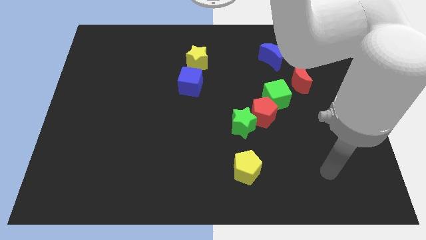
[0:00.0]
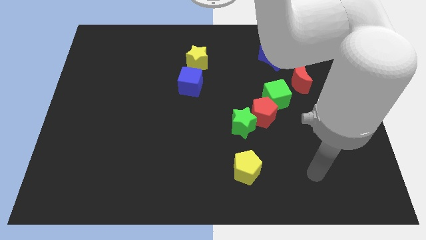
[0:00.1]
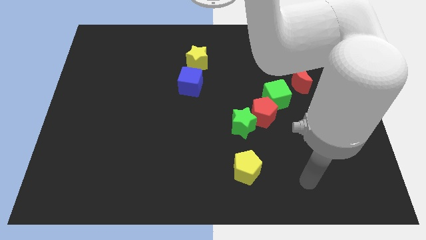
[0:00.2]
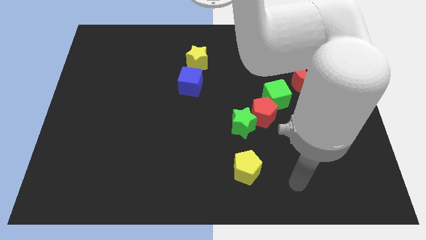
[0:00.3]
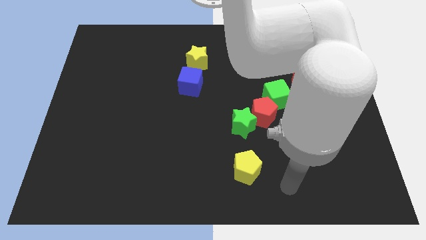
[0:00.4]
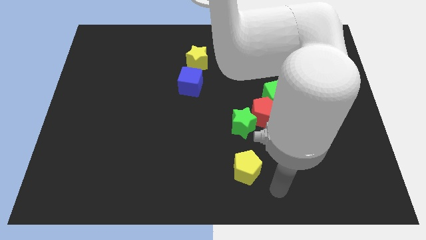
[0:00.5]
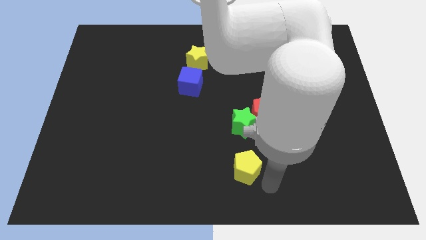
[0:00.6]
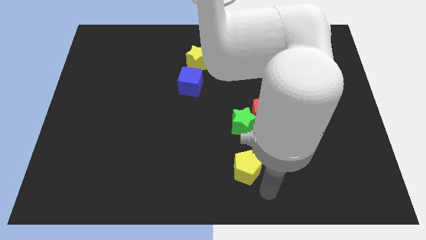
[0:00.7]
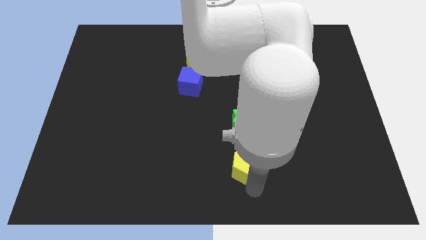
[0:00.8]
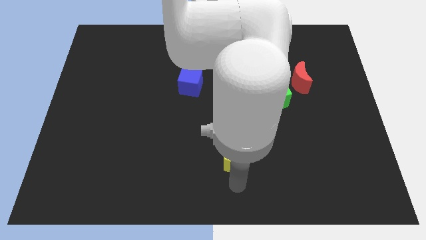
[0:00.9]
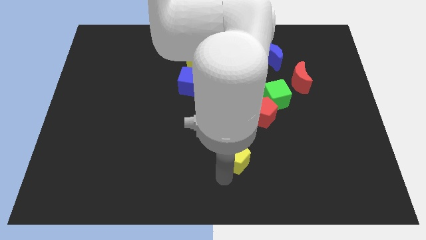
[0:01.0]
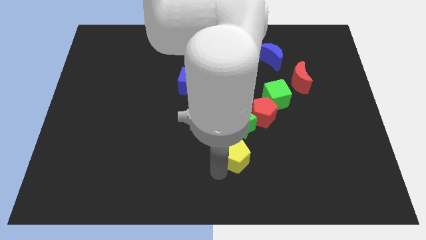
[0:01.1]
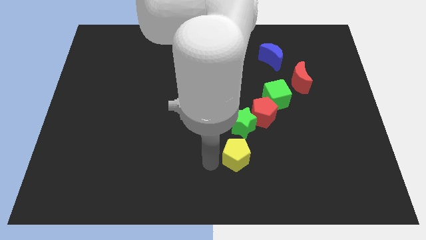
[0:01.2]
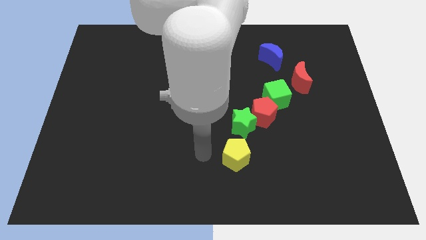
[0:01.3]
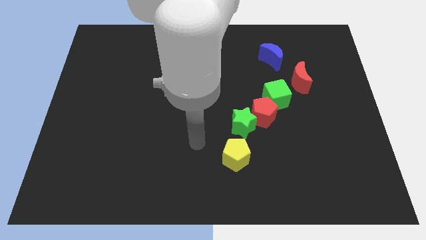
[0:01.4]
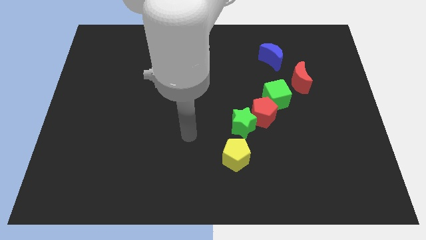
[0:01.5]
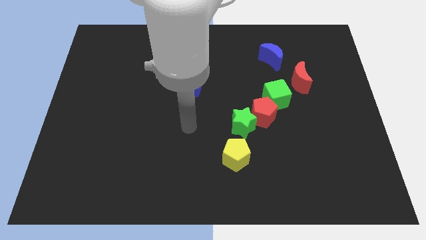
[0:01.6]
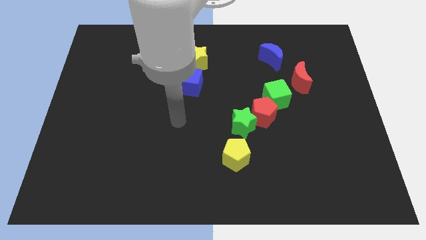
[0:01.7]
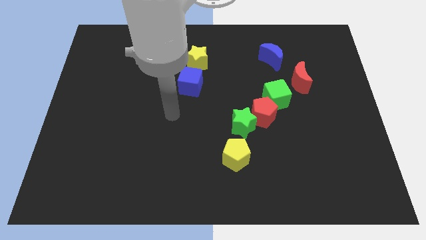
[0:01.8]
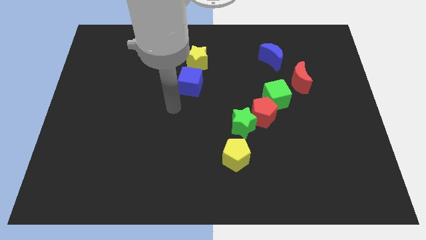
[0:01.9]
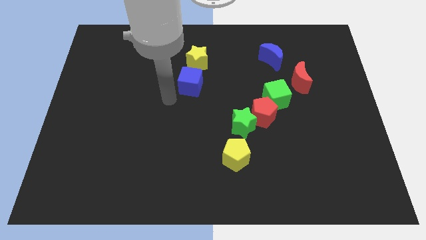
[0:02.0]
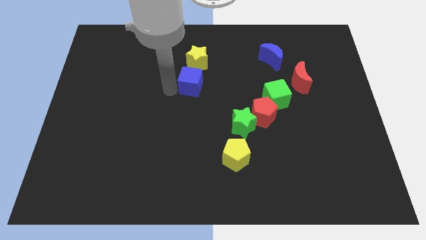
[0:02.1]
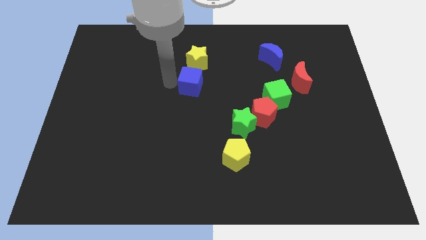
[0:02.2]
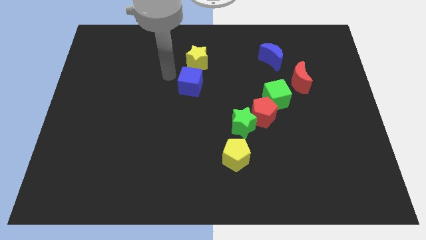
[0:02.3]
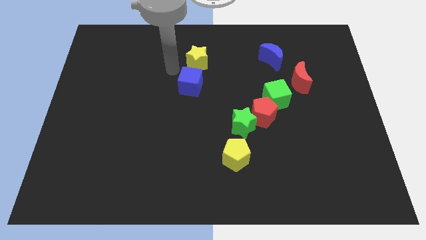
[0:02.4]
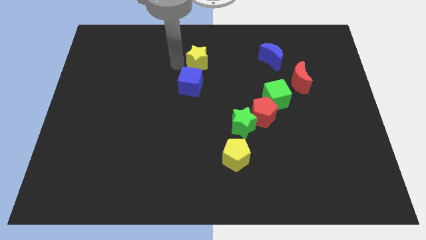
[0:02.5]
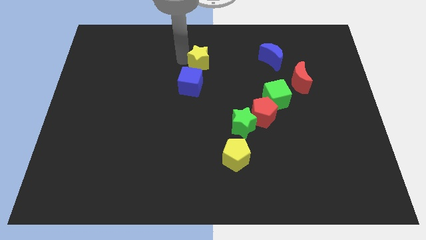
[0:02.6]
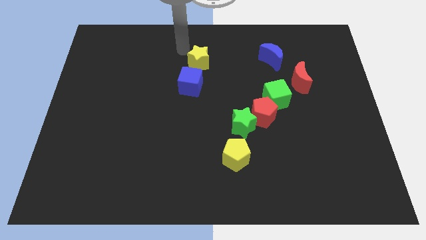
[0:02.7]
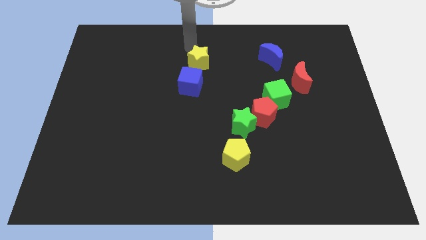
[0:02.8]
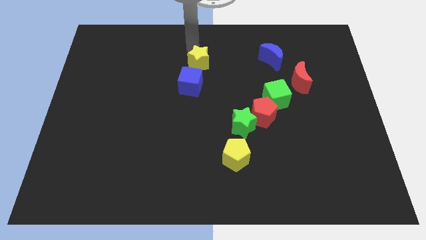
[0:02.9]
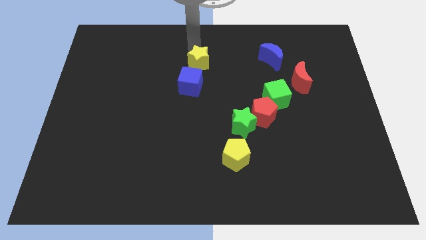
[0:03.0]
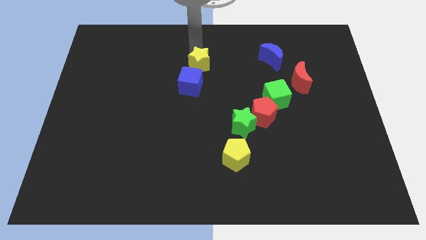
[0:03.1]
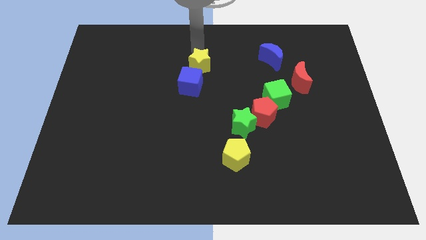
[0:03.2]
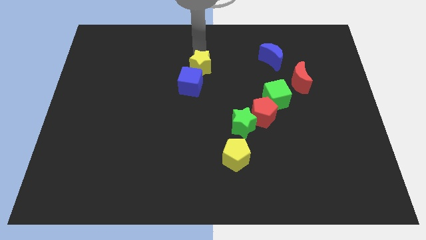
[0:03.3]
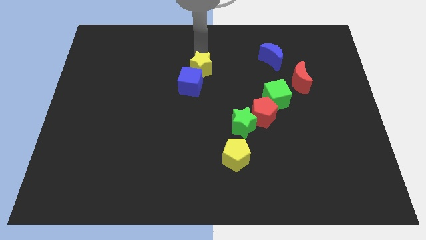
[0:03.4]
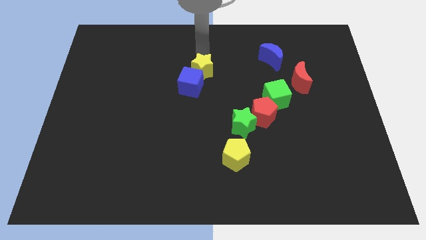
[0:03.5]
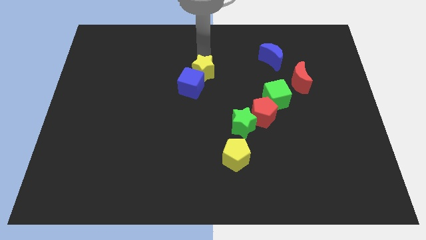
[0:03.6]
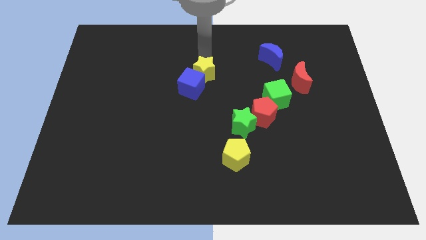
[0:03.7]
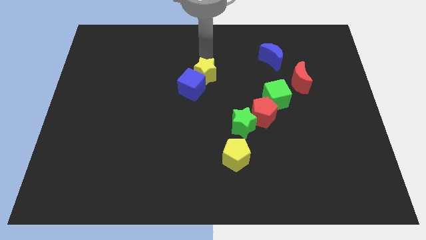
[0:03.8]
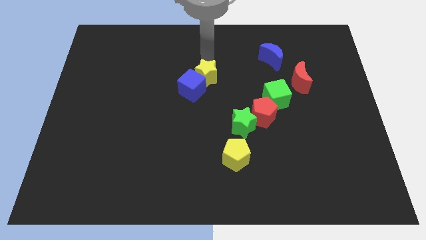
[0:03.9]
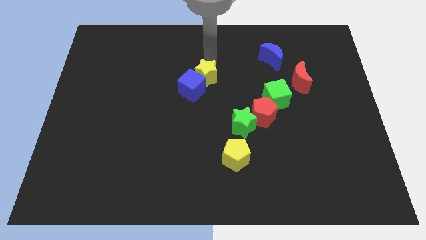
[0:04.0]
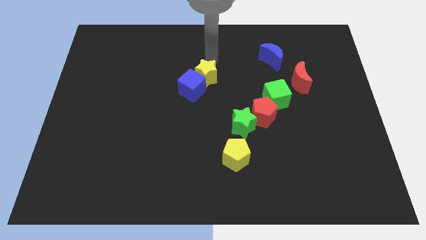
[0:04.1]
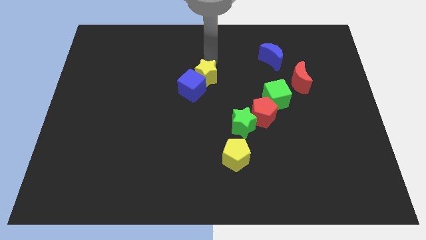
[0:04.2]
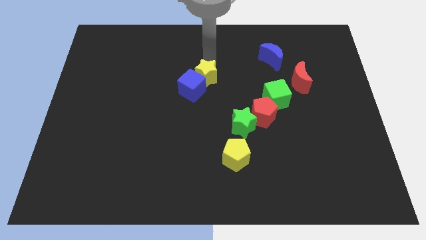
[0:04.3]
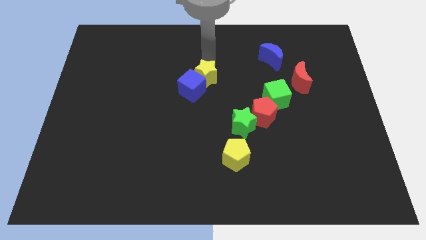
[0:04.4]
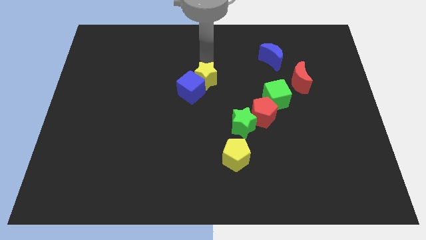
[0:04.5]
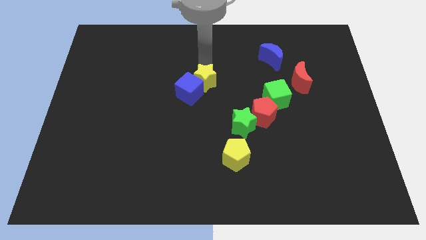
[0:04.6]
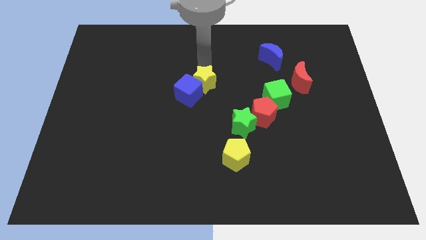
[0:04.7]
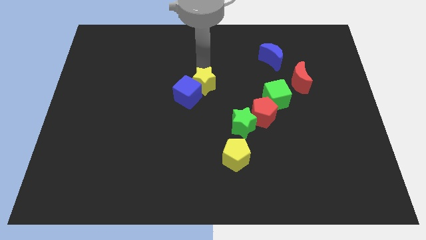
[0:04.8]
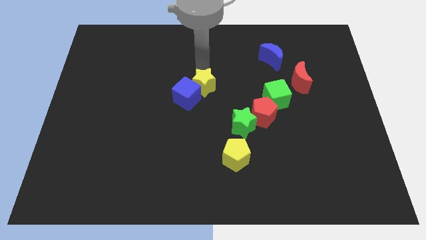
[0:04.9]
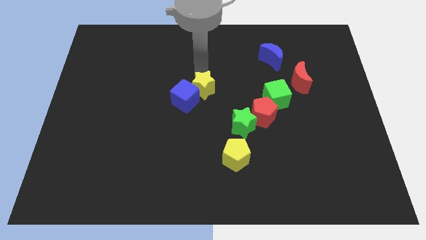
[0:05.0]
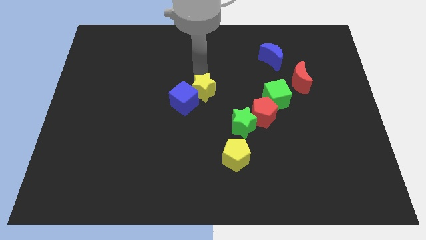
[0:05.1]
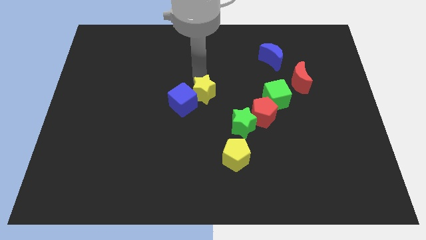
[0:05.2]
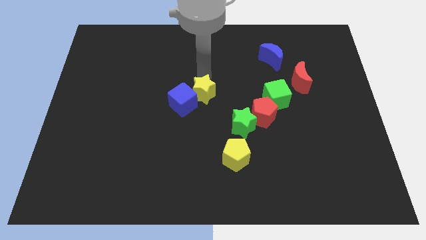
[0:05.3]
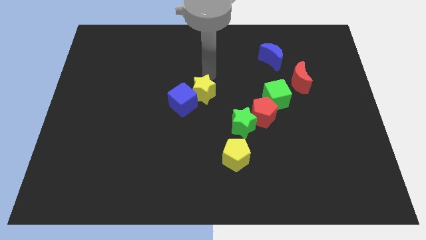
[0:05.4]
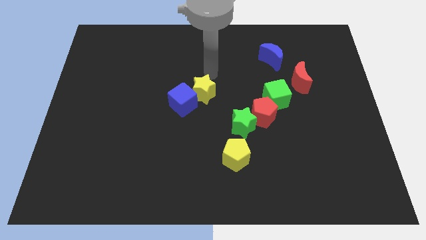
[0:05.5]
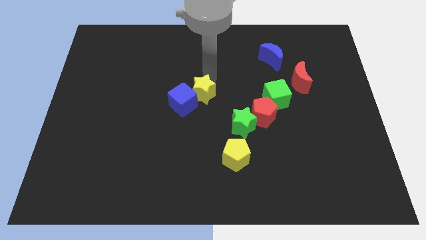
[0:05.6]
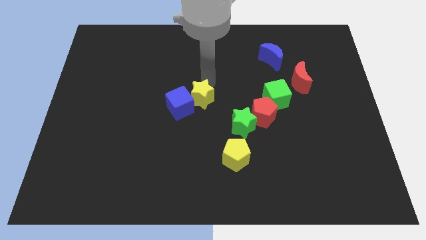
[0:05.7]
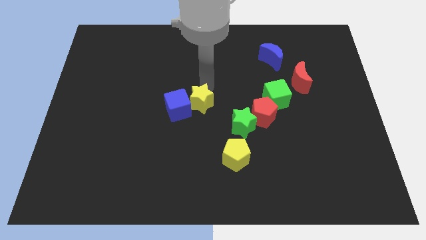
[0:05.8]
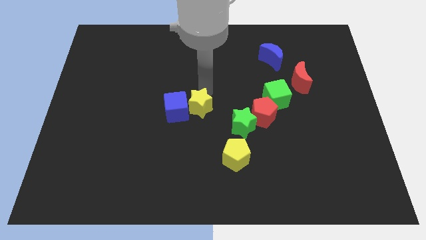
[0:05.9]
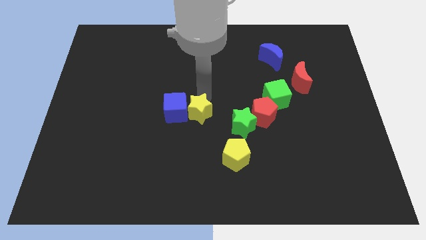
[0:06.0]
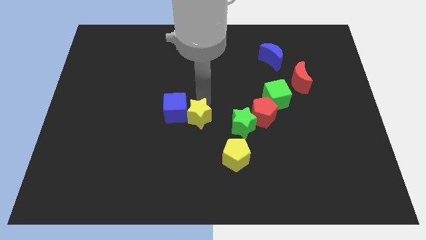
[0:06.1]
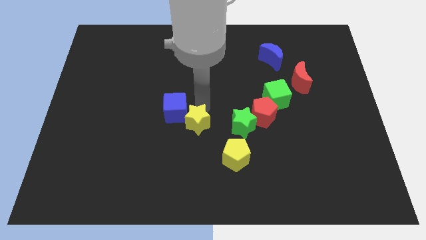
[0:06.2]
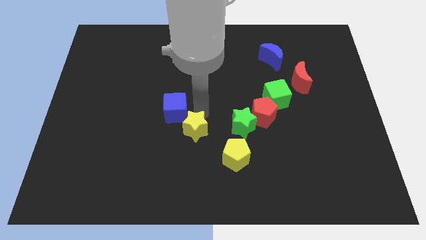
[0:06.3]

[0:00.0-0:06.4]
slide the yellow star down

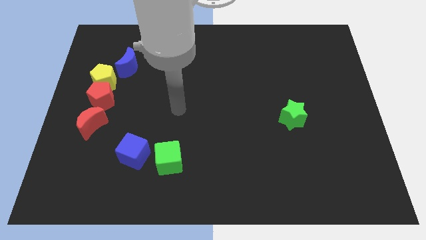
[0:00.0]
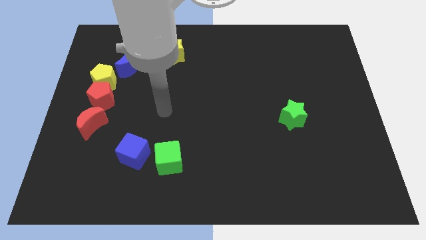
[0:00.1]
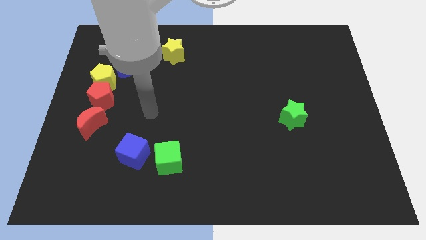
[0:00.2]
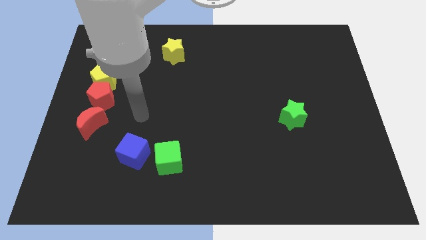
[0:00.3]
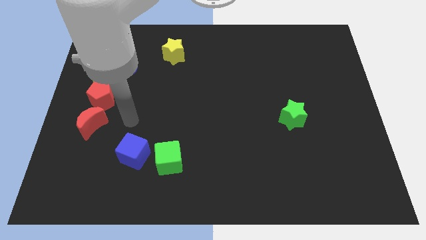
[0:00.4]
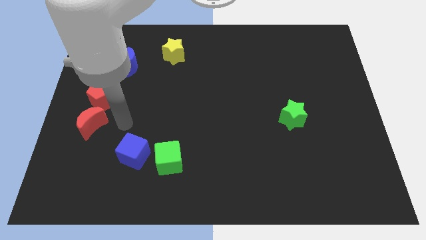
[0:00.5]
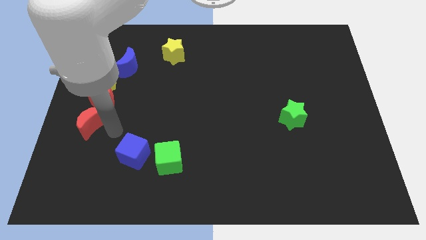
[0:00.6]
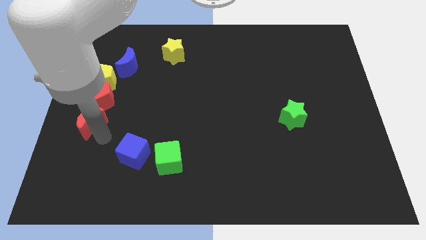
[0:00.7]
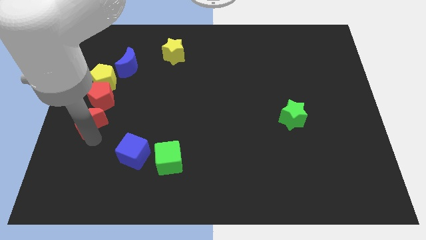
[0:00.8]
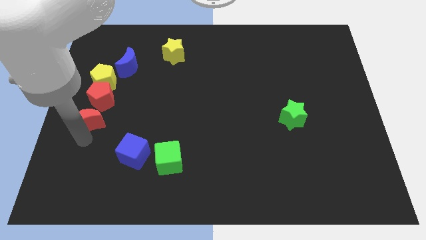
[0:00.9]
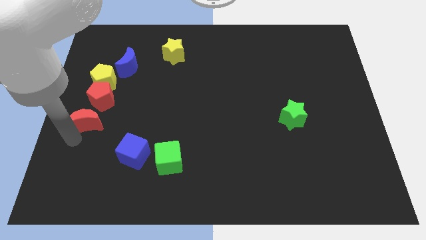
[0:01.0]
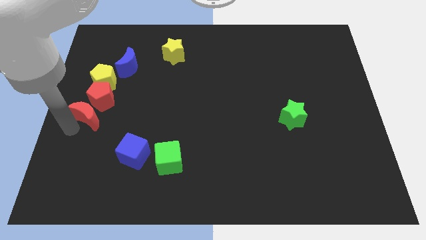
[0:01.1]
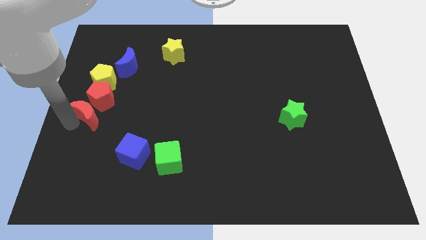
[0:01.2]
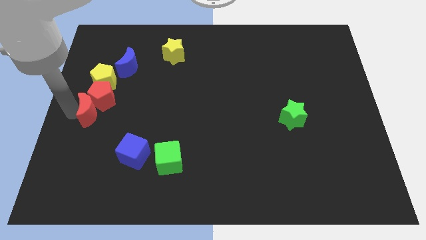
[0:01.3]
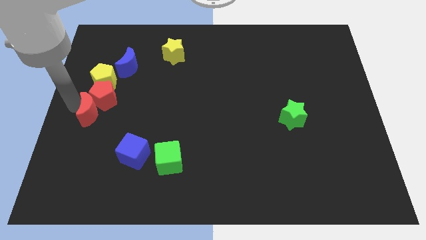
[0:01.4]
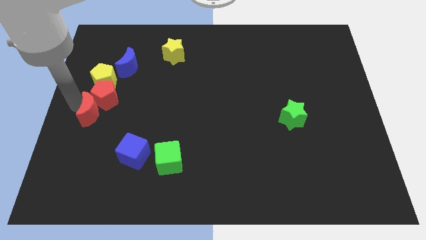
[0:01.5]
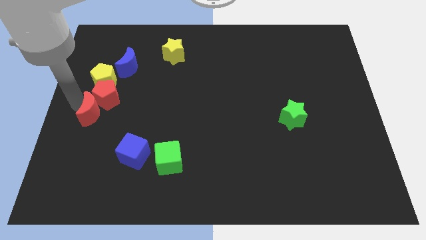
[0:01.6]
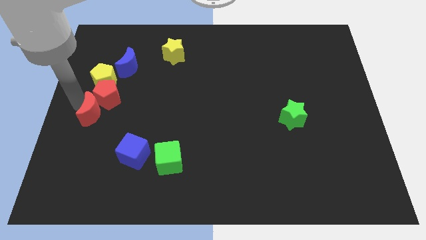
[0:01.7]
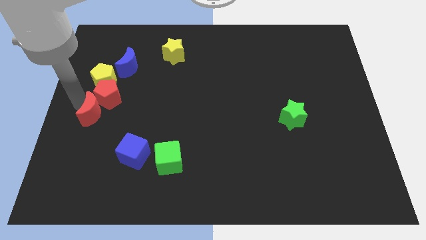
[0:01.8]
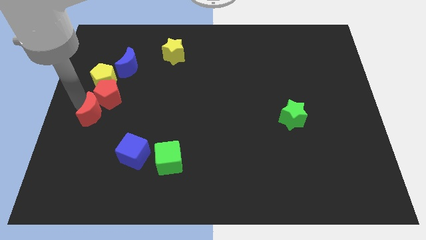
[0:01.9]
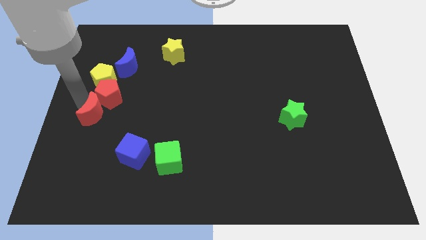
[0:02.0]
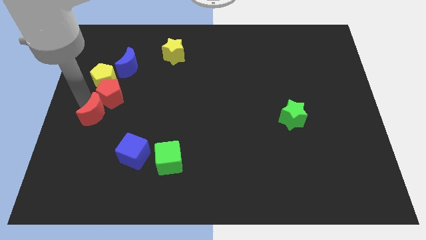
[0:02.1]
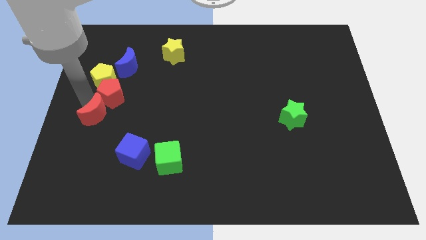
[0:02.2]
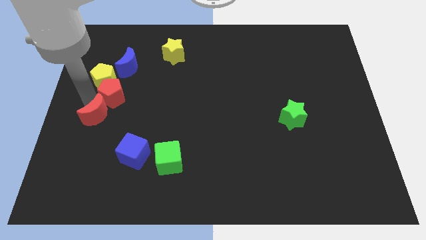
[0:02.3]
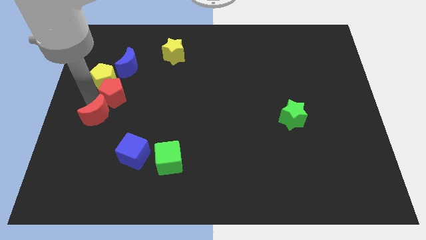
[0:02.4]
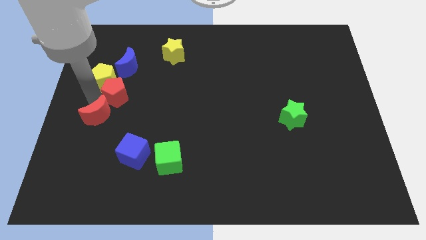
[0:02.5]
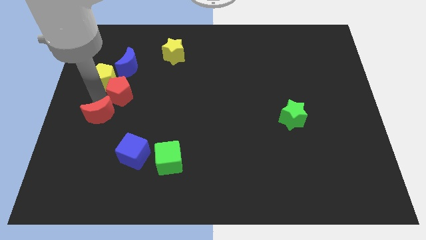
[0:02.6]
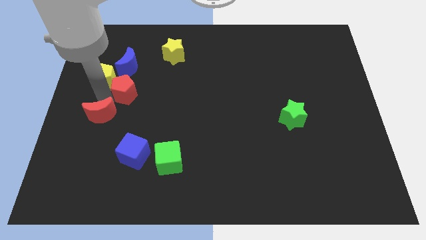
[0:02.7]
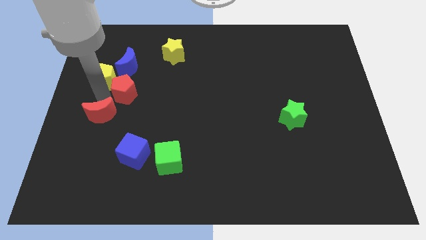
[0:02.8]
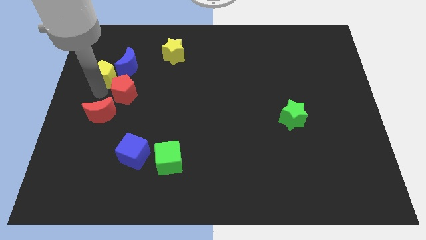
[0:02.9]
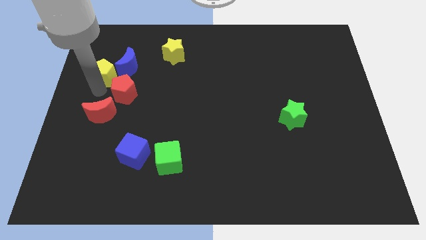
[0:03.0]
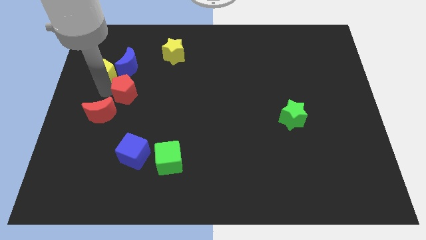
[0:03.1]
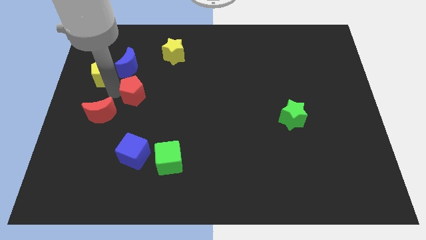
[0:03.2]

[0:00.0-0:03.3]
slightly slide the red pentagon right
